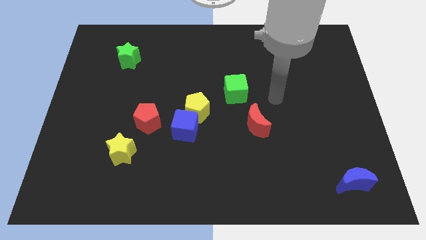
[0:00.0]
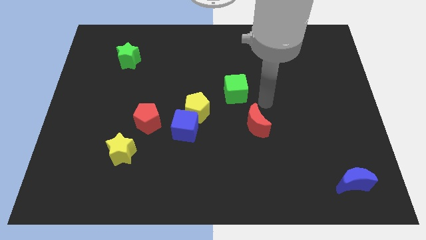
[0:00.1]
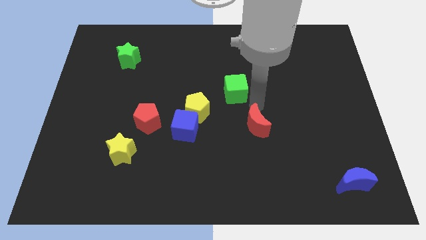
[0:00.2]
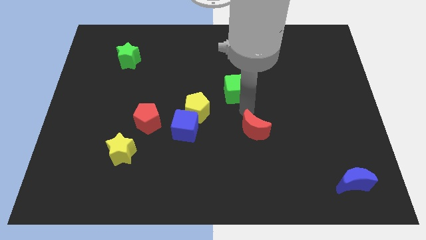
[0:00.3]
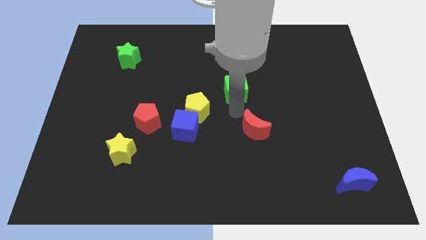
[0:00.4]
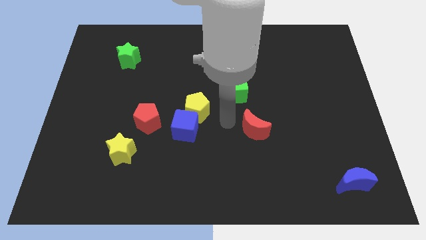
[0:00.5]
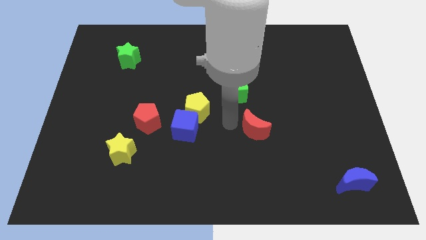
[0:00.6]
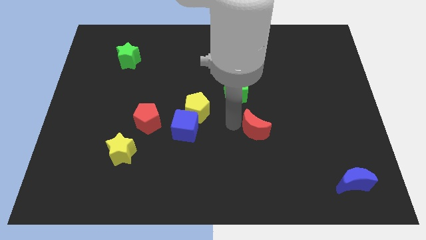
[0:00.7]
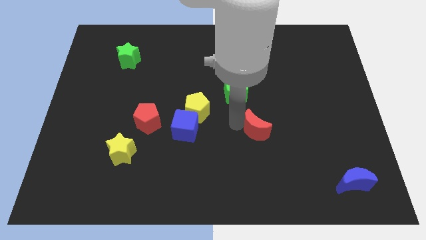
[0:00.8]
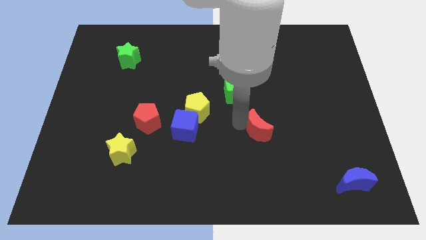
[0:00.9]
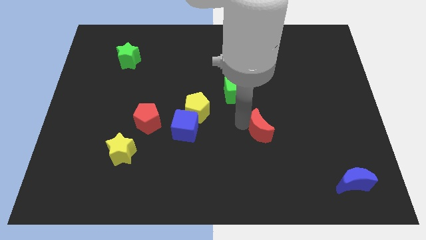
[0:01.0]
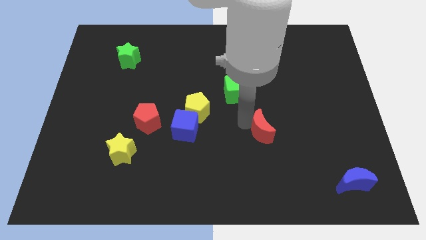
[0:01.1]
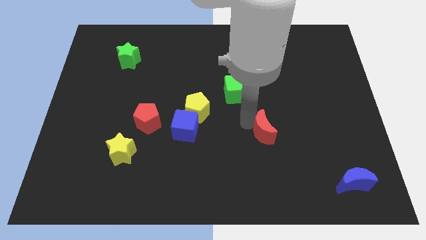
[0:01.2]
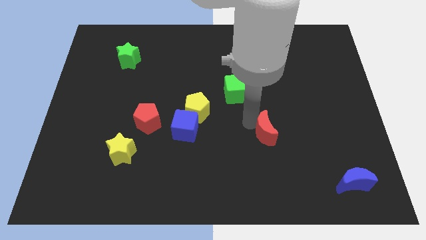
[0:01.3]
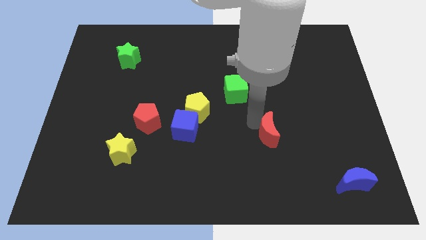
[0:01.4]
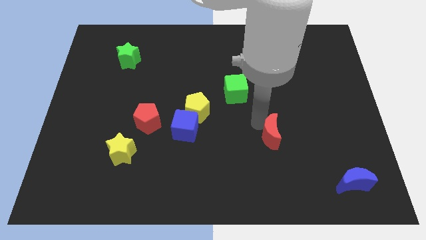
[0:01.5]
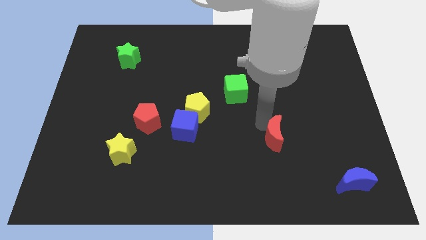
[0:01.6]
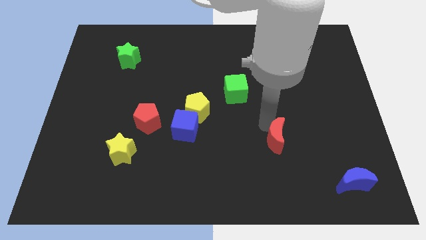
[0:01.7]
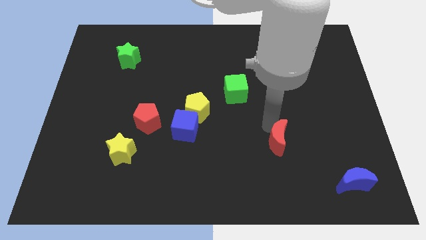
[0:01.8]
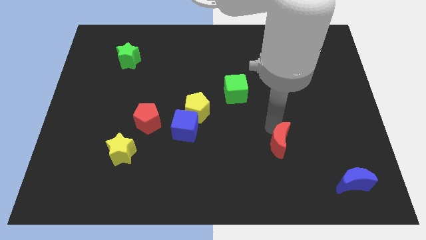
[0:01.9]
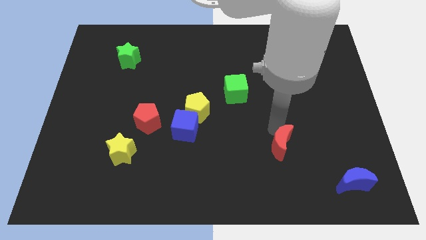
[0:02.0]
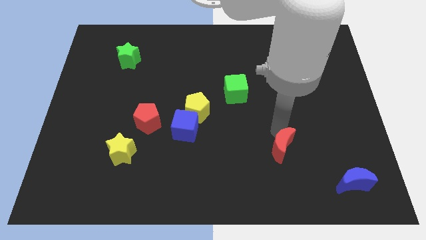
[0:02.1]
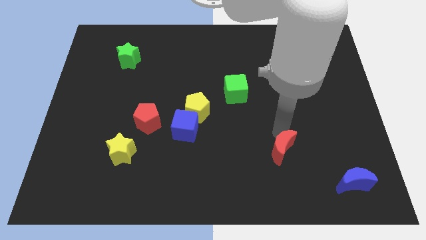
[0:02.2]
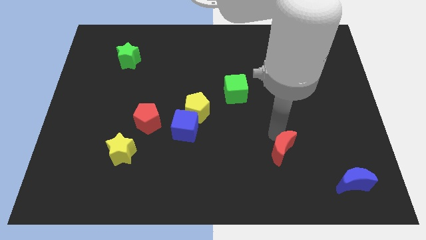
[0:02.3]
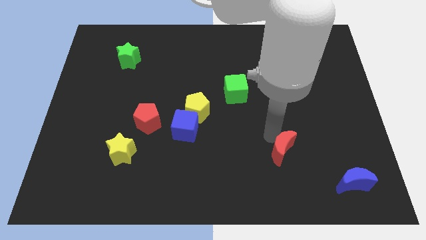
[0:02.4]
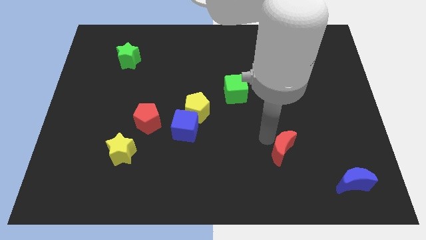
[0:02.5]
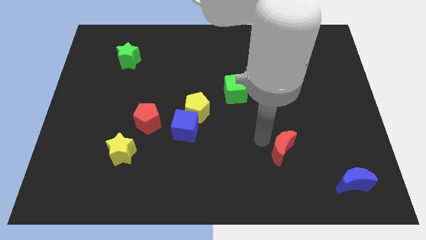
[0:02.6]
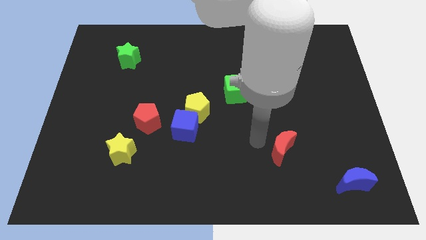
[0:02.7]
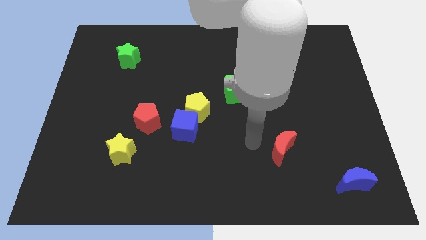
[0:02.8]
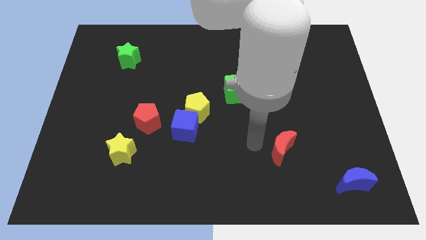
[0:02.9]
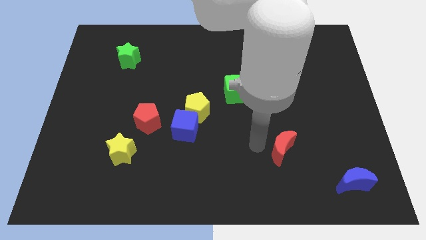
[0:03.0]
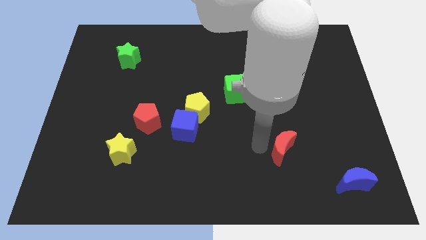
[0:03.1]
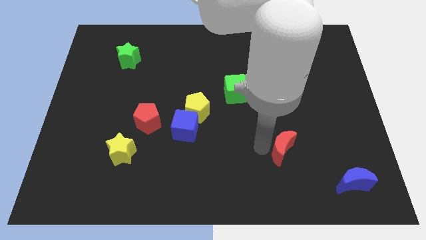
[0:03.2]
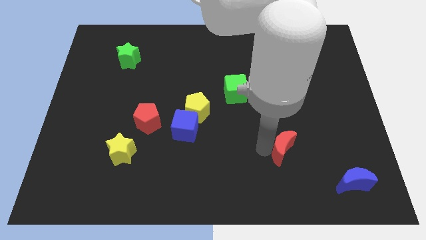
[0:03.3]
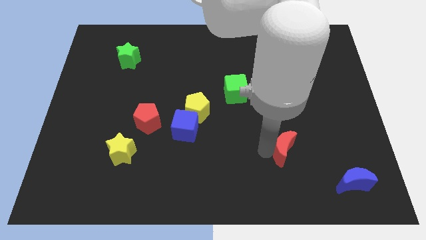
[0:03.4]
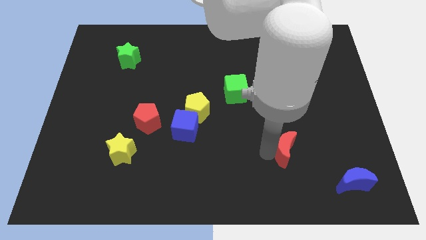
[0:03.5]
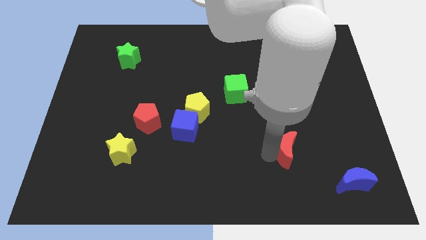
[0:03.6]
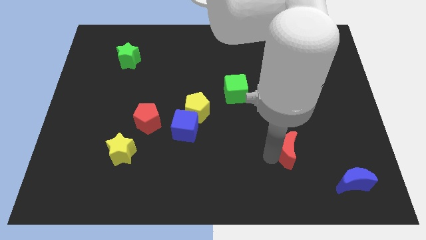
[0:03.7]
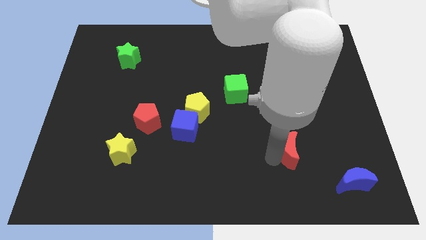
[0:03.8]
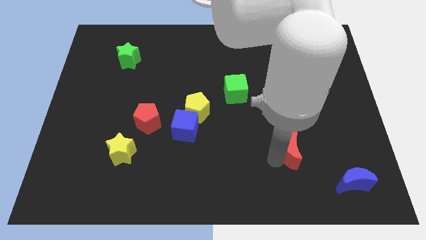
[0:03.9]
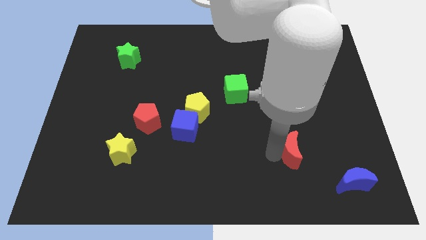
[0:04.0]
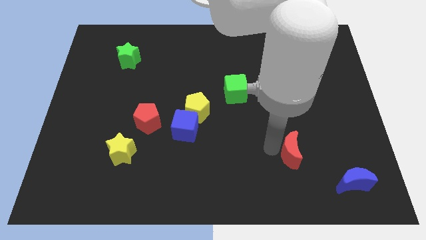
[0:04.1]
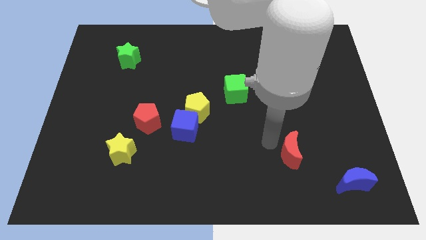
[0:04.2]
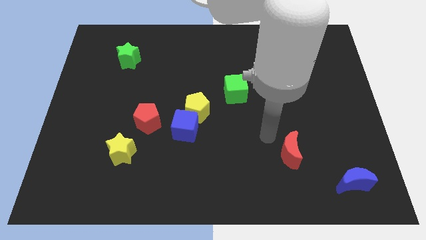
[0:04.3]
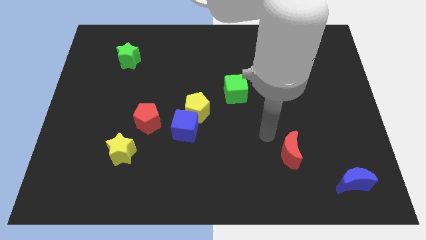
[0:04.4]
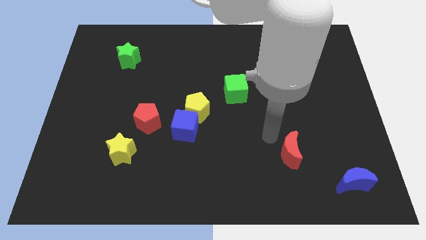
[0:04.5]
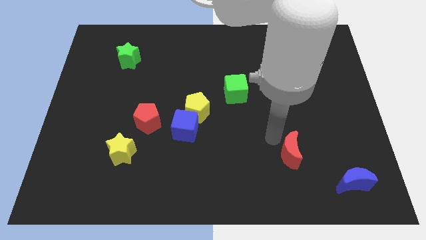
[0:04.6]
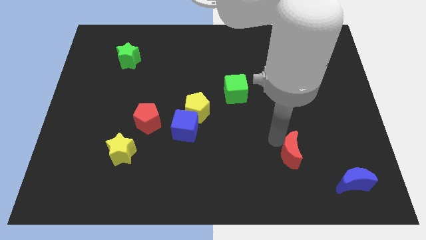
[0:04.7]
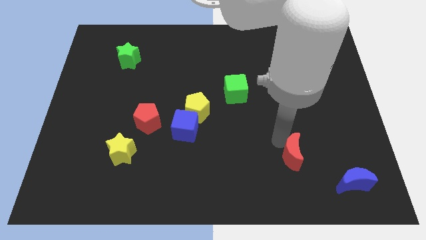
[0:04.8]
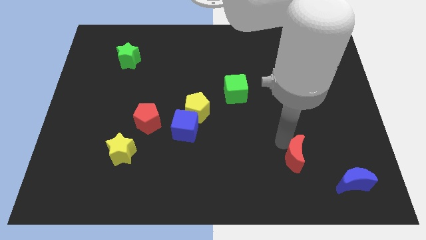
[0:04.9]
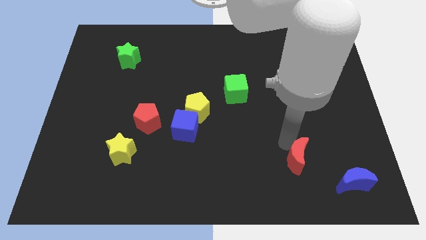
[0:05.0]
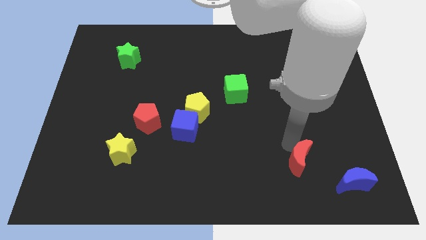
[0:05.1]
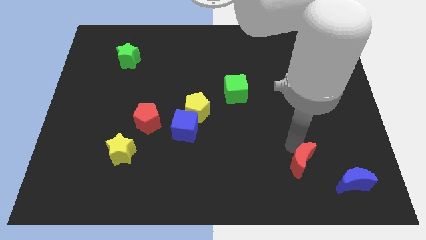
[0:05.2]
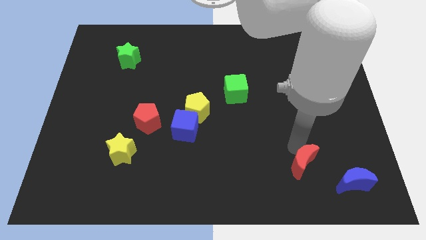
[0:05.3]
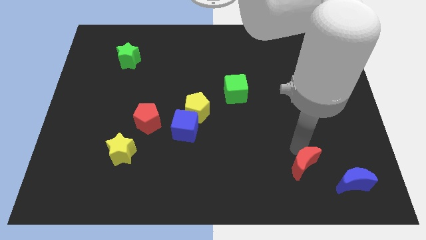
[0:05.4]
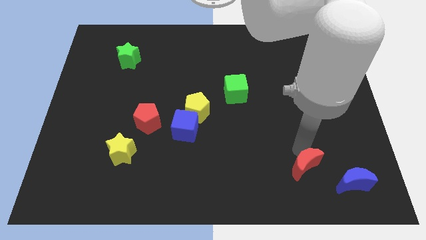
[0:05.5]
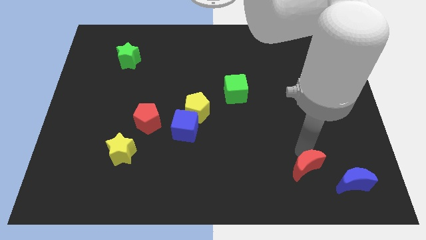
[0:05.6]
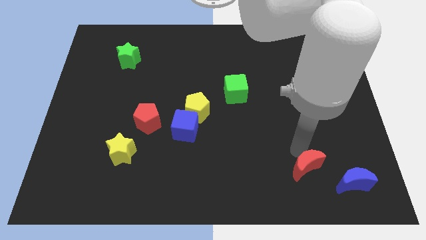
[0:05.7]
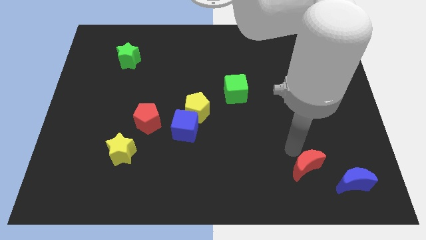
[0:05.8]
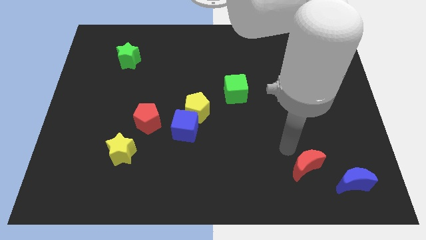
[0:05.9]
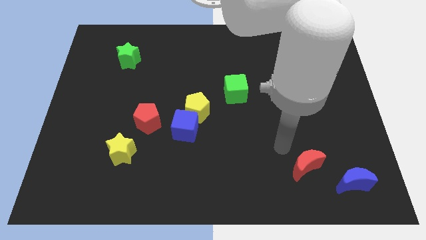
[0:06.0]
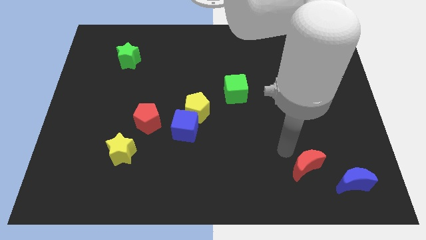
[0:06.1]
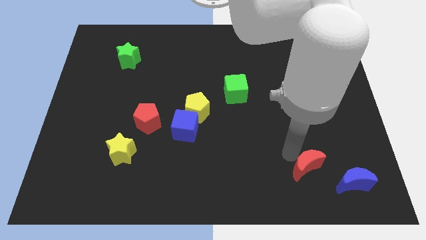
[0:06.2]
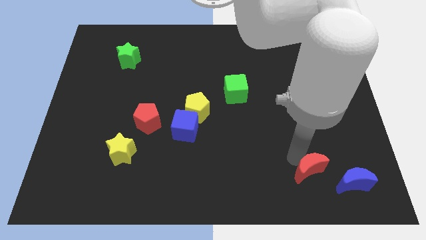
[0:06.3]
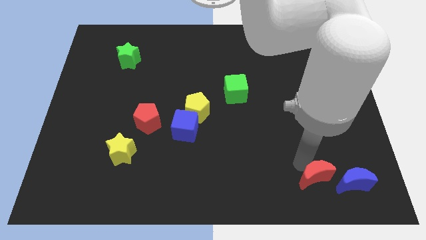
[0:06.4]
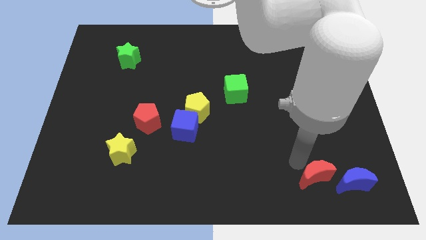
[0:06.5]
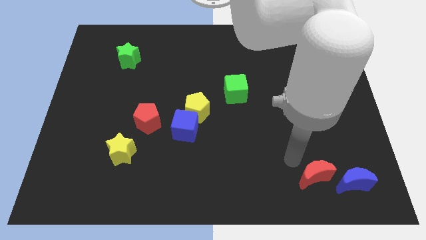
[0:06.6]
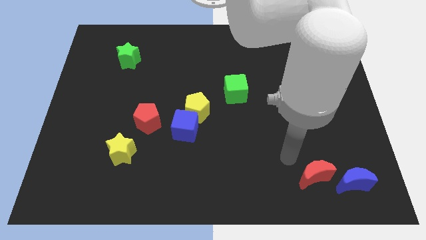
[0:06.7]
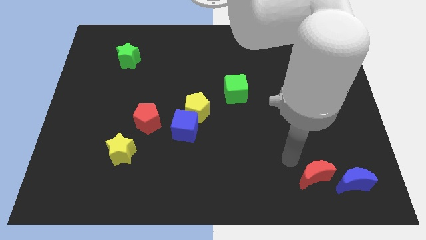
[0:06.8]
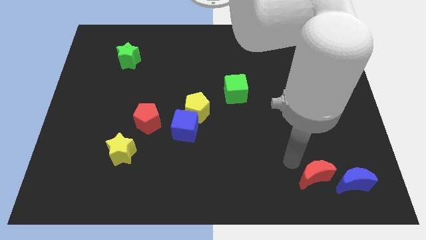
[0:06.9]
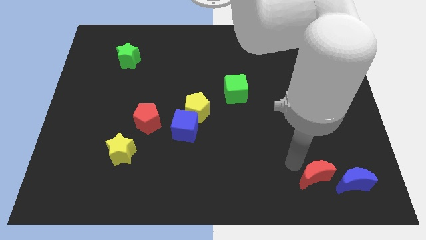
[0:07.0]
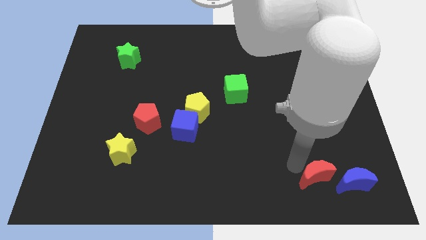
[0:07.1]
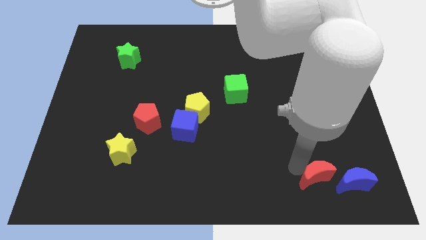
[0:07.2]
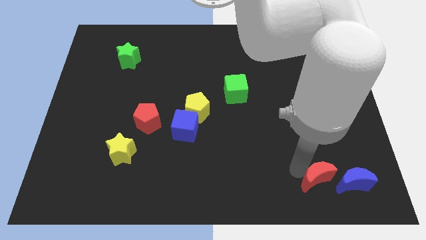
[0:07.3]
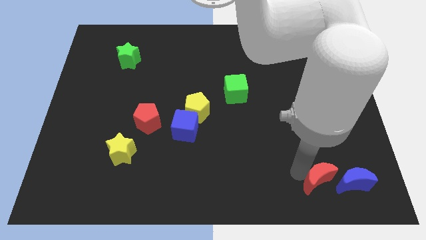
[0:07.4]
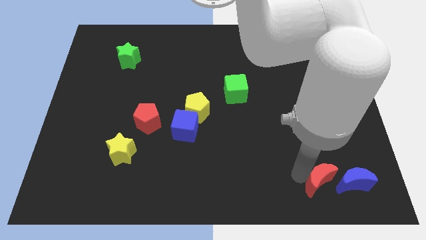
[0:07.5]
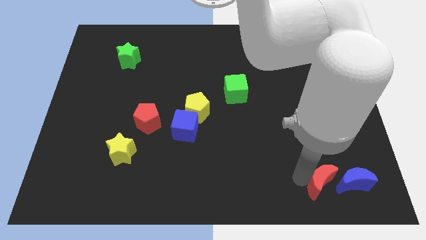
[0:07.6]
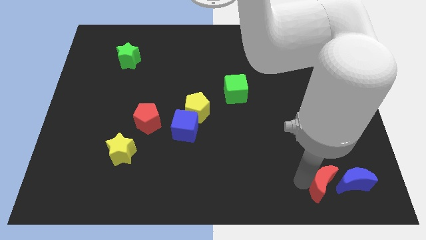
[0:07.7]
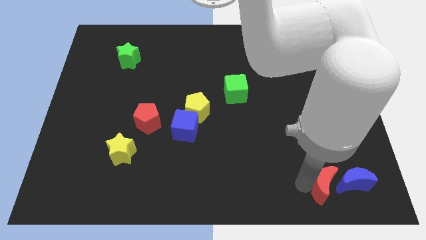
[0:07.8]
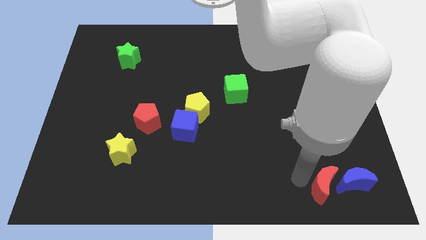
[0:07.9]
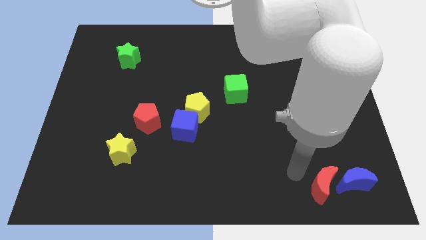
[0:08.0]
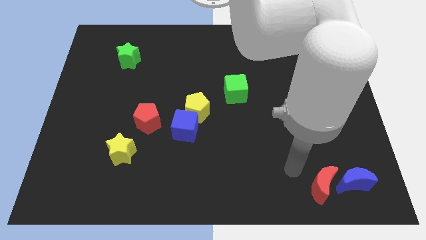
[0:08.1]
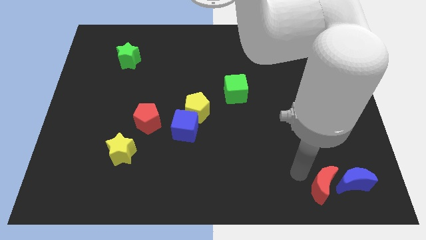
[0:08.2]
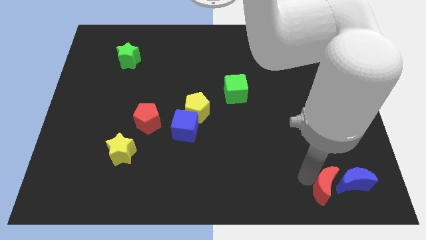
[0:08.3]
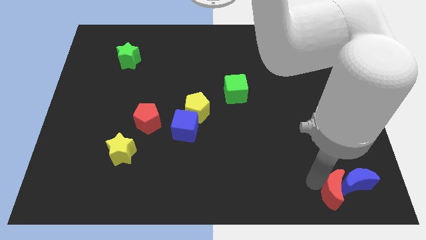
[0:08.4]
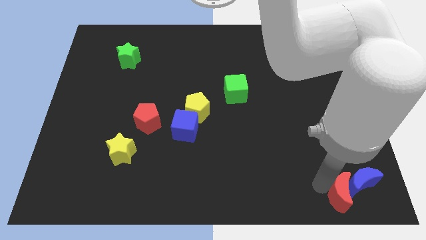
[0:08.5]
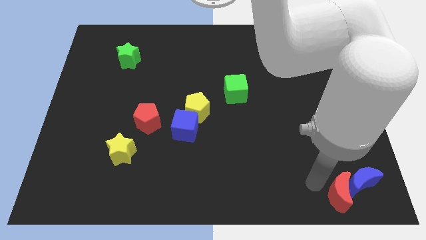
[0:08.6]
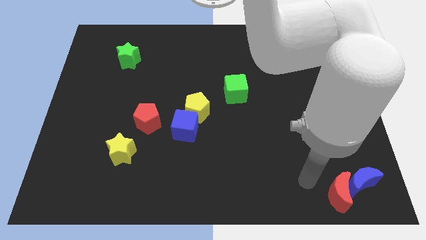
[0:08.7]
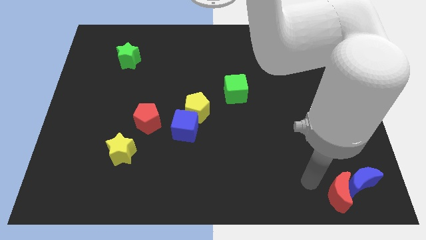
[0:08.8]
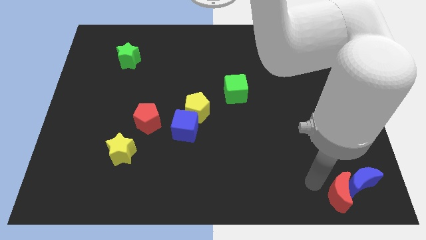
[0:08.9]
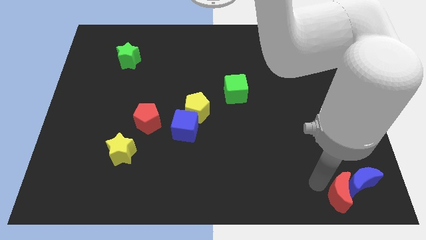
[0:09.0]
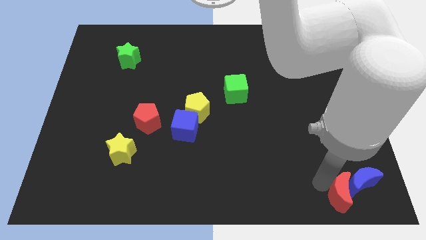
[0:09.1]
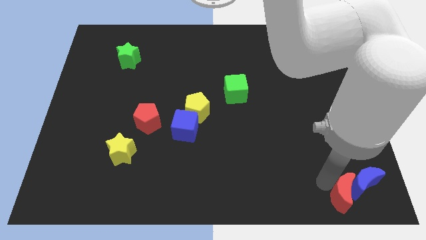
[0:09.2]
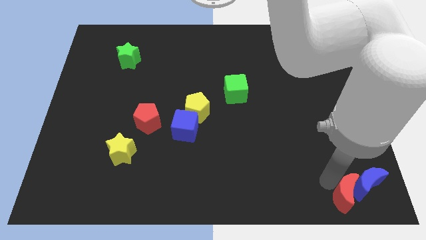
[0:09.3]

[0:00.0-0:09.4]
slide the red moon to the bottom right corner
